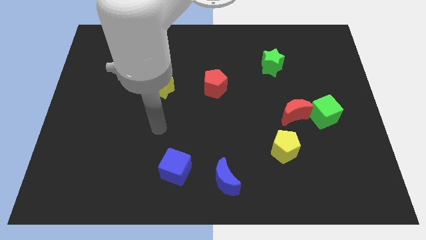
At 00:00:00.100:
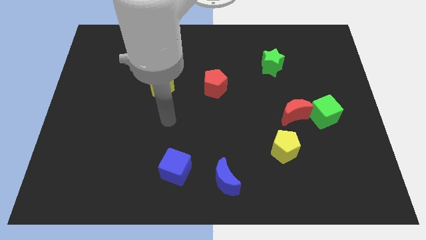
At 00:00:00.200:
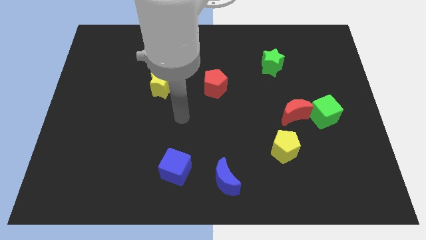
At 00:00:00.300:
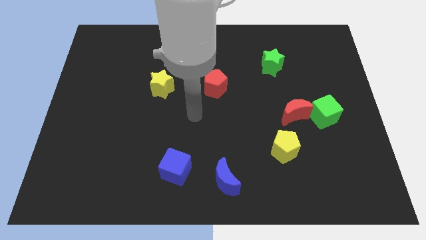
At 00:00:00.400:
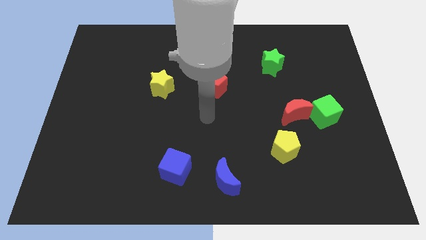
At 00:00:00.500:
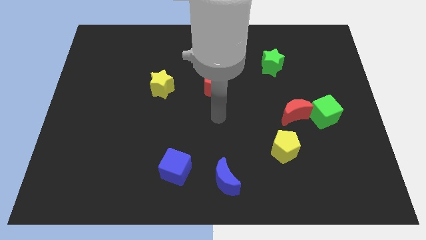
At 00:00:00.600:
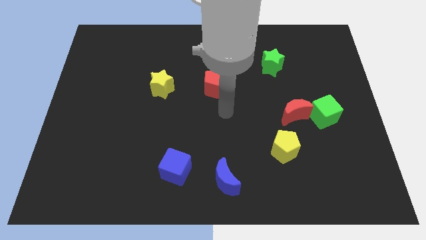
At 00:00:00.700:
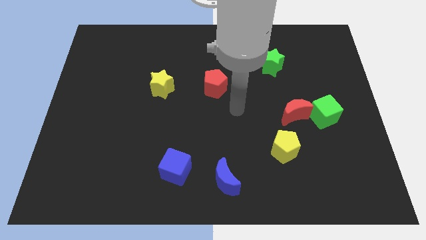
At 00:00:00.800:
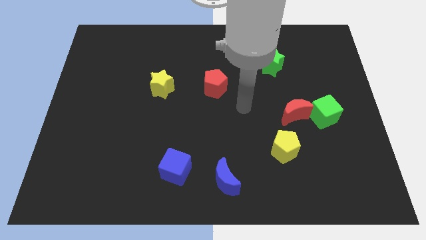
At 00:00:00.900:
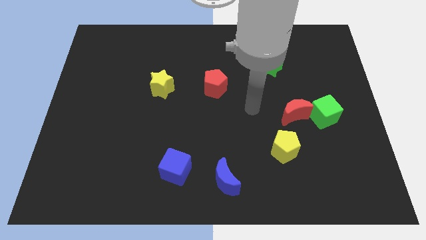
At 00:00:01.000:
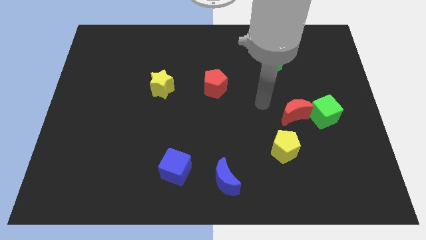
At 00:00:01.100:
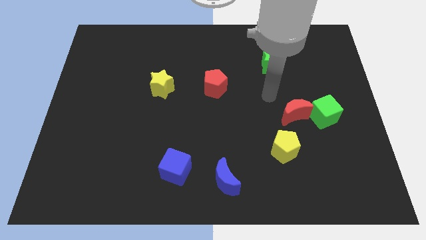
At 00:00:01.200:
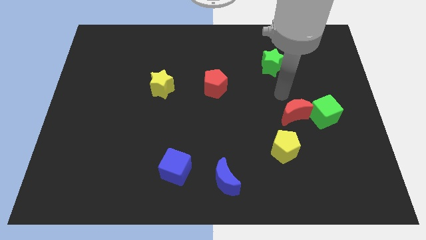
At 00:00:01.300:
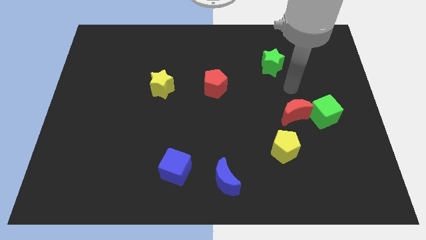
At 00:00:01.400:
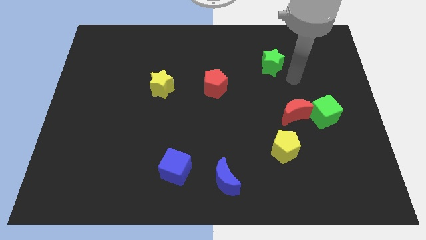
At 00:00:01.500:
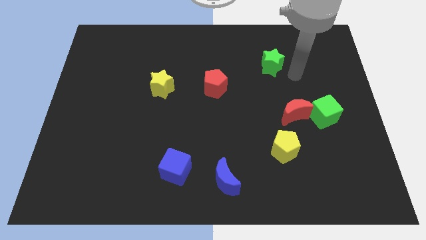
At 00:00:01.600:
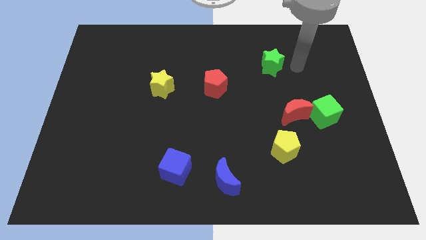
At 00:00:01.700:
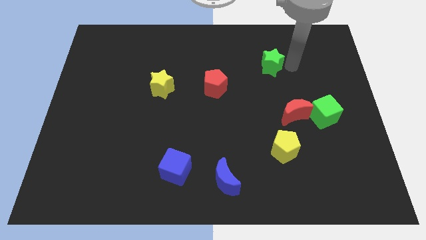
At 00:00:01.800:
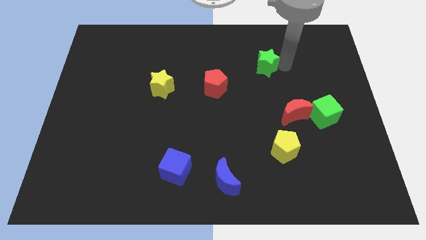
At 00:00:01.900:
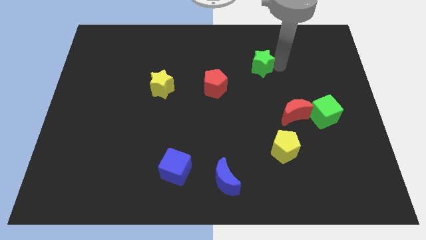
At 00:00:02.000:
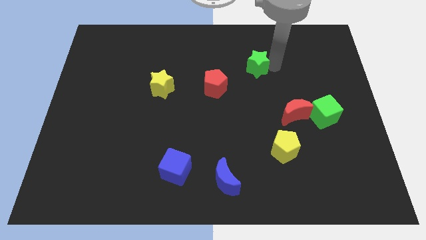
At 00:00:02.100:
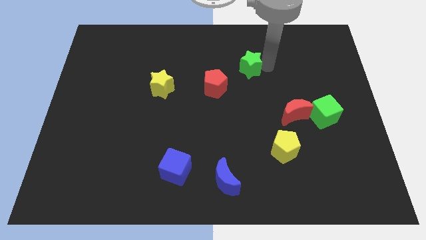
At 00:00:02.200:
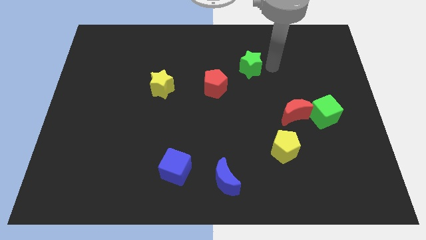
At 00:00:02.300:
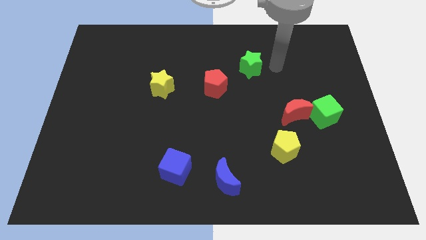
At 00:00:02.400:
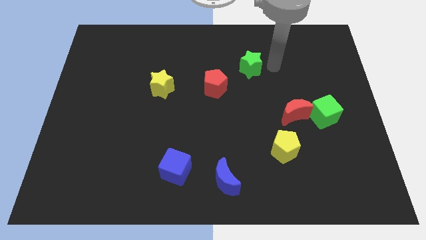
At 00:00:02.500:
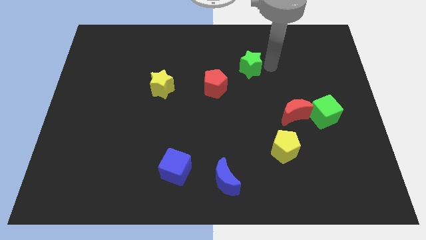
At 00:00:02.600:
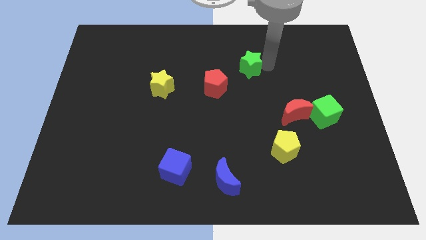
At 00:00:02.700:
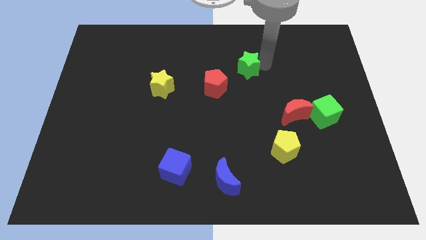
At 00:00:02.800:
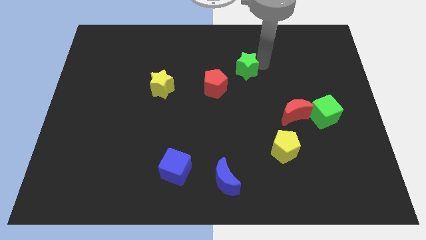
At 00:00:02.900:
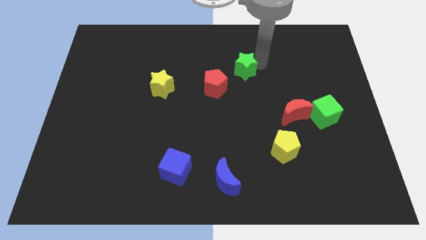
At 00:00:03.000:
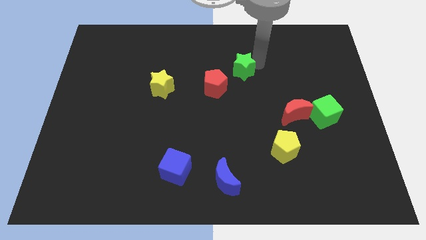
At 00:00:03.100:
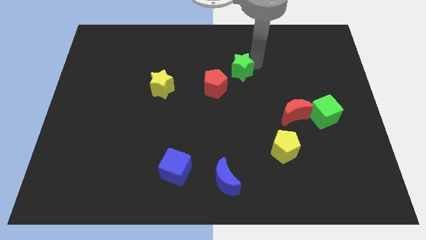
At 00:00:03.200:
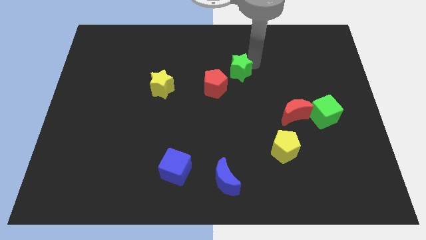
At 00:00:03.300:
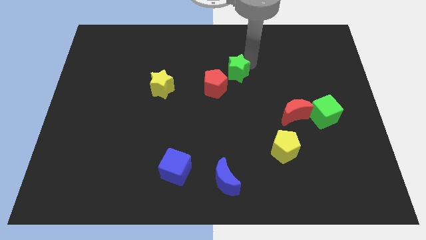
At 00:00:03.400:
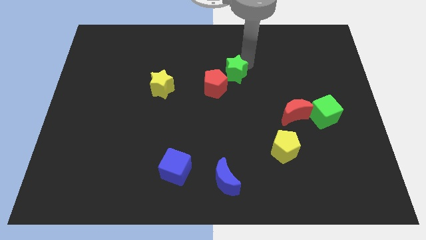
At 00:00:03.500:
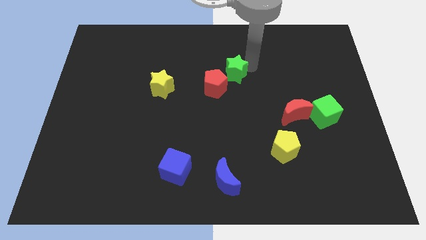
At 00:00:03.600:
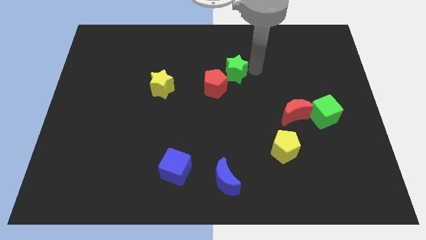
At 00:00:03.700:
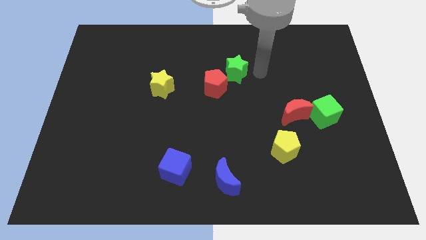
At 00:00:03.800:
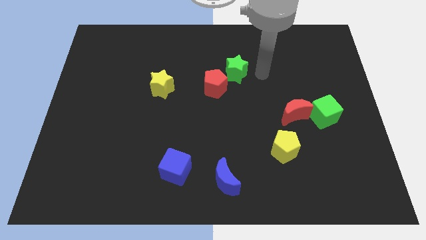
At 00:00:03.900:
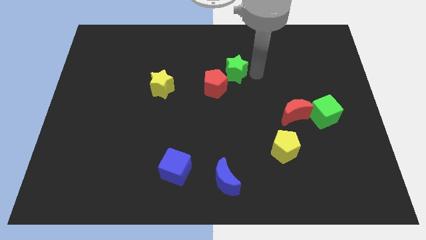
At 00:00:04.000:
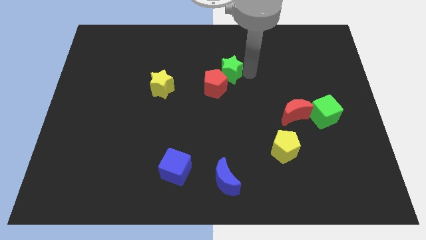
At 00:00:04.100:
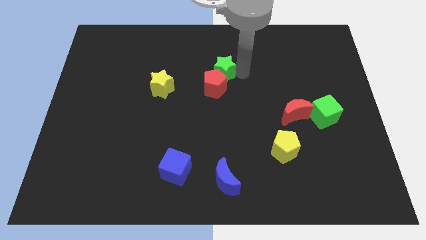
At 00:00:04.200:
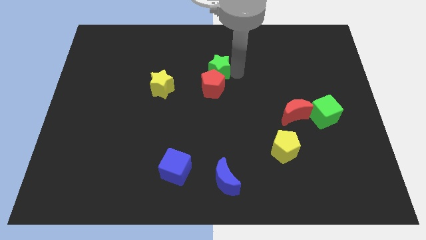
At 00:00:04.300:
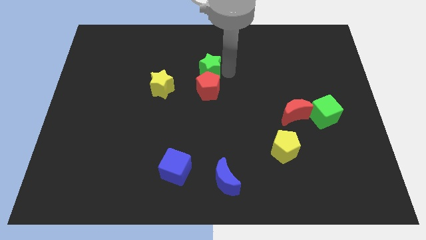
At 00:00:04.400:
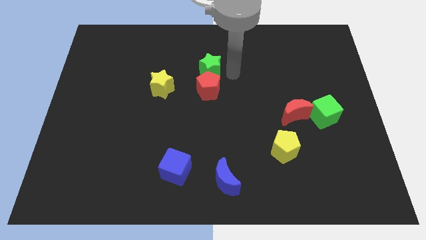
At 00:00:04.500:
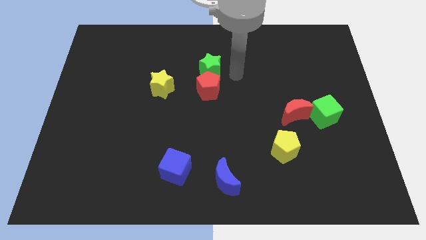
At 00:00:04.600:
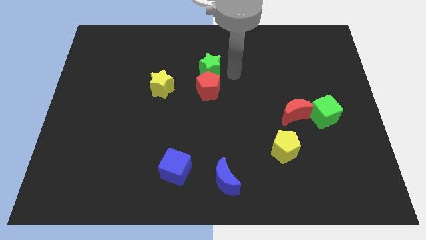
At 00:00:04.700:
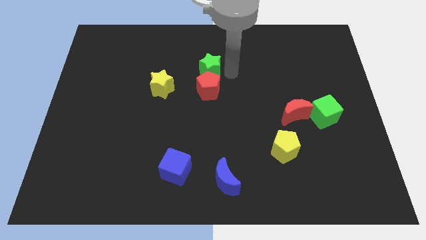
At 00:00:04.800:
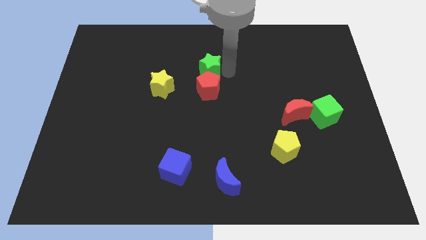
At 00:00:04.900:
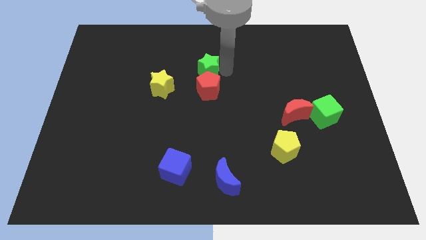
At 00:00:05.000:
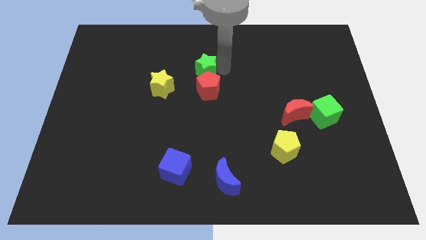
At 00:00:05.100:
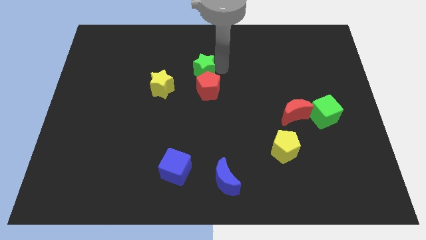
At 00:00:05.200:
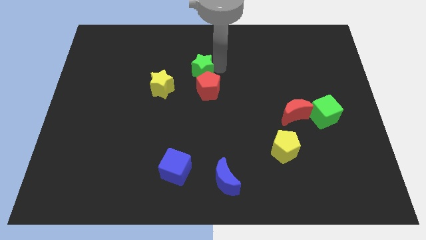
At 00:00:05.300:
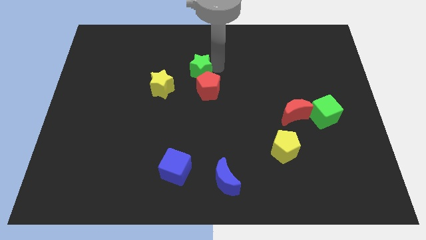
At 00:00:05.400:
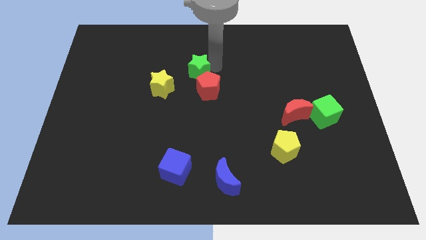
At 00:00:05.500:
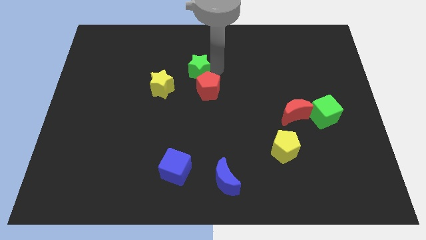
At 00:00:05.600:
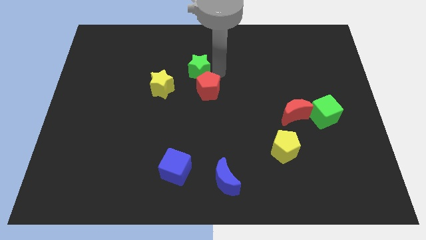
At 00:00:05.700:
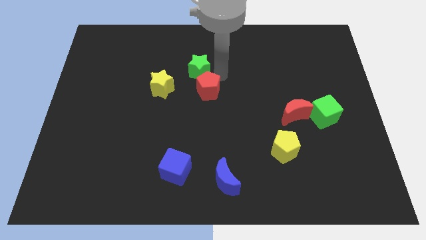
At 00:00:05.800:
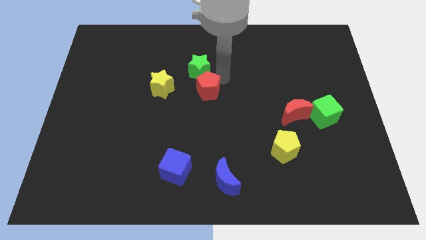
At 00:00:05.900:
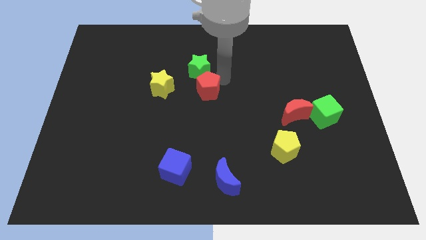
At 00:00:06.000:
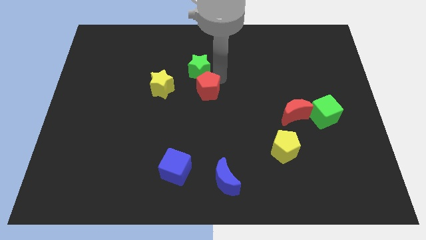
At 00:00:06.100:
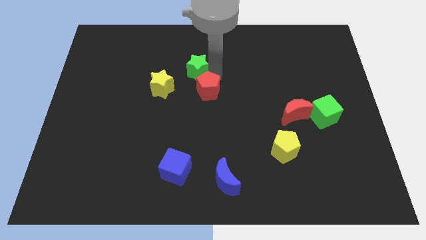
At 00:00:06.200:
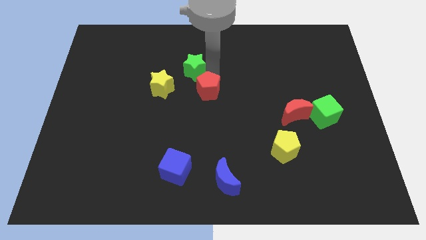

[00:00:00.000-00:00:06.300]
move the green star left

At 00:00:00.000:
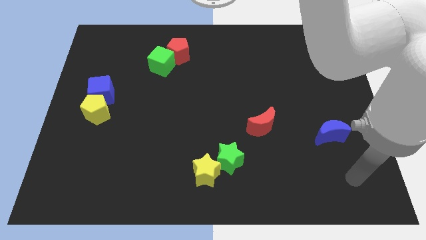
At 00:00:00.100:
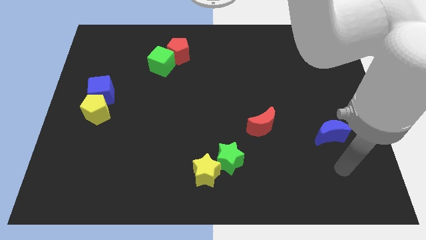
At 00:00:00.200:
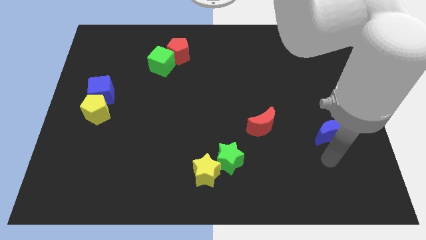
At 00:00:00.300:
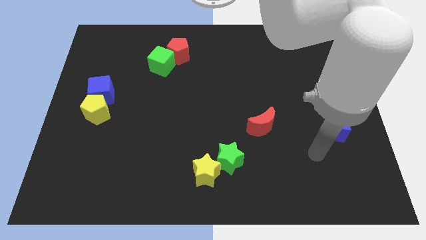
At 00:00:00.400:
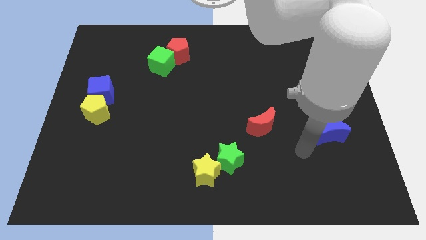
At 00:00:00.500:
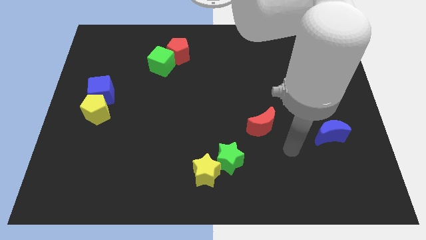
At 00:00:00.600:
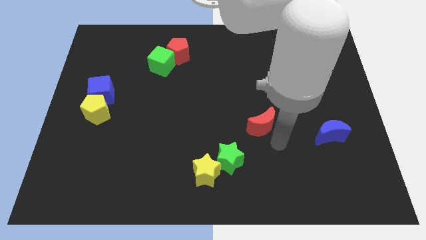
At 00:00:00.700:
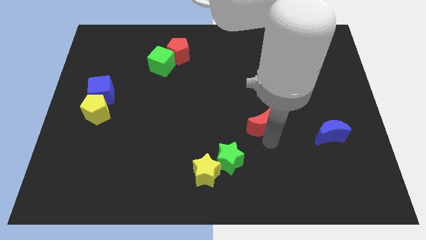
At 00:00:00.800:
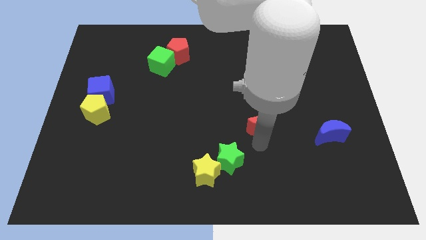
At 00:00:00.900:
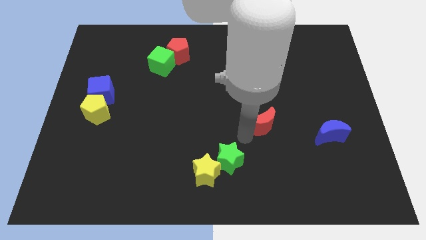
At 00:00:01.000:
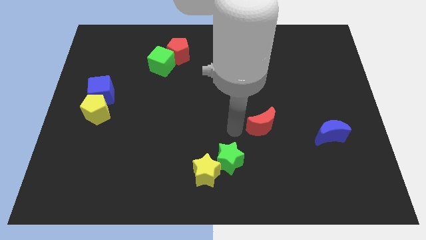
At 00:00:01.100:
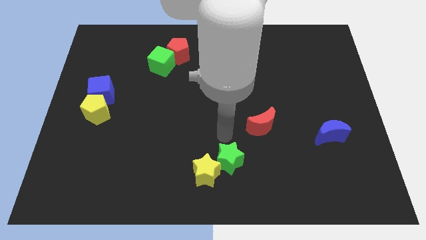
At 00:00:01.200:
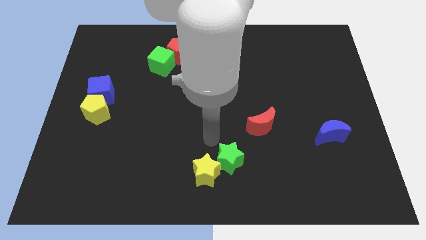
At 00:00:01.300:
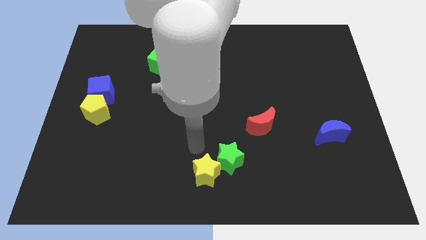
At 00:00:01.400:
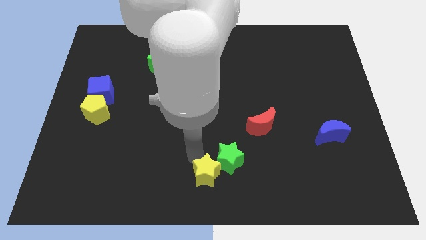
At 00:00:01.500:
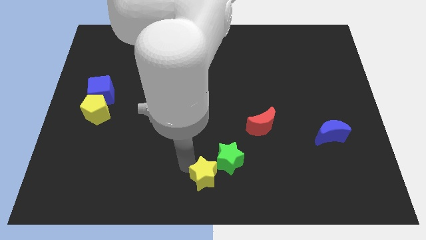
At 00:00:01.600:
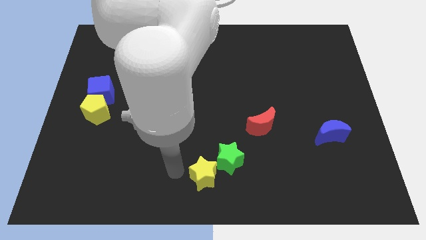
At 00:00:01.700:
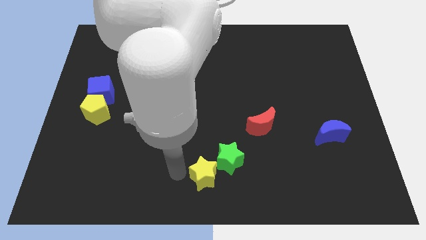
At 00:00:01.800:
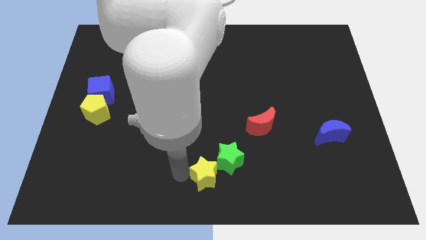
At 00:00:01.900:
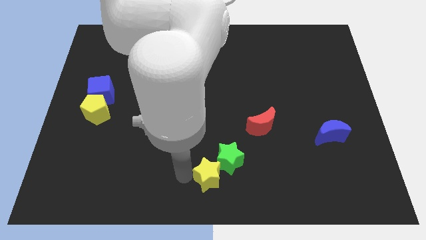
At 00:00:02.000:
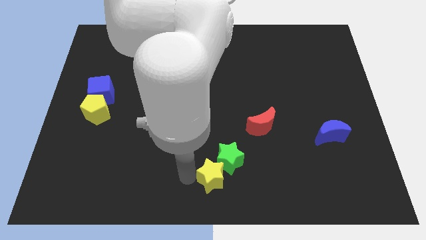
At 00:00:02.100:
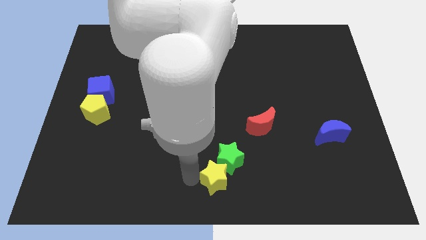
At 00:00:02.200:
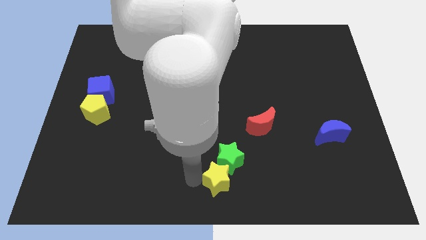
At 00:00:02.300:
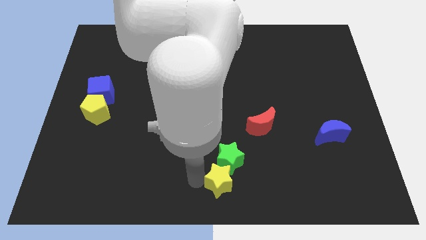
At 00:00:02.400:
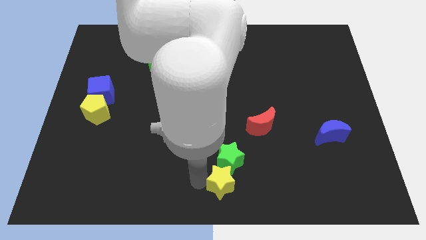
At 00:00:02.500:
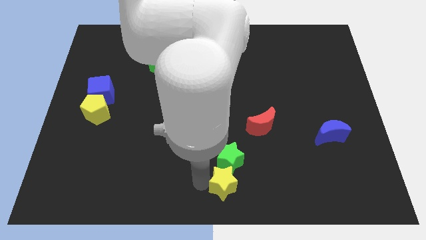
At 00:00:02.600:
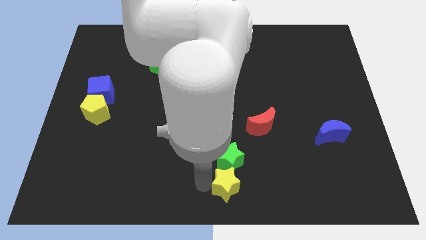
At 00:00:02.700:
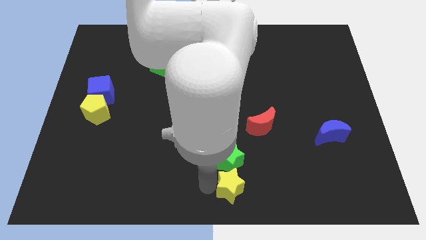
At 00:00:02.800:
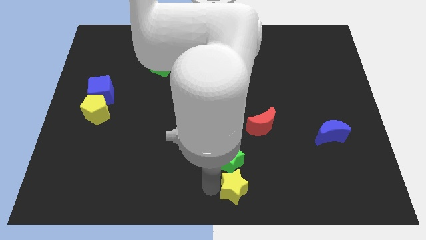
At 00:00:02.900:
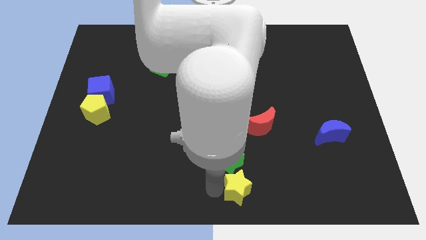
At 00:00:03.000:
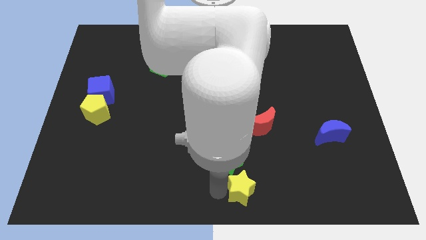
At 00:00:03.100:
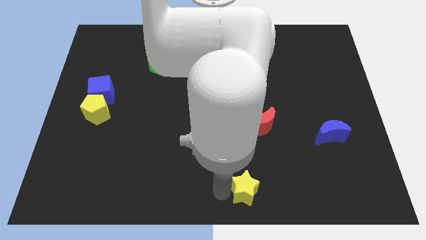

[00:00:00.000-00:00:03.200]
move the yellow star right a bit
